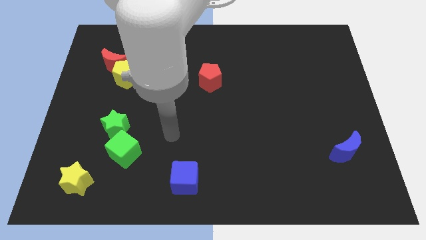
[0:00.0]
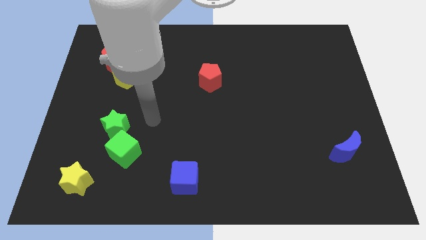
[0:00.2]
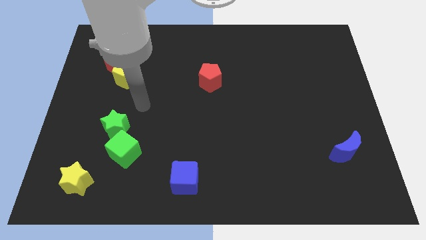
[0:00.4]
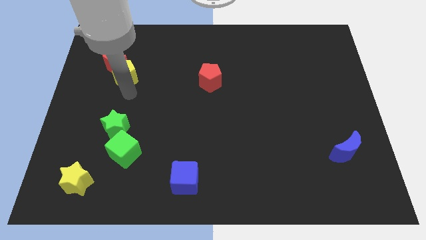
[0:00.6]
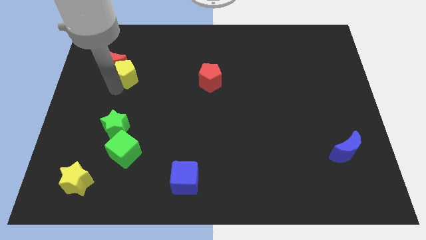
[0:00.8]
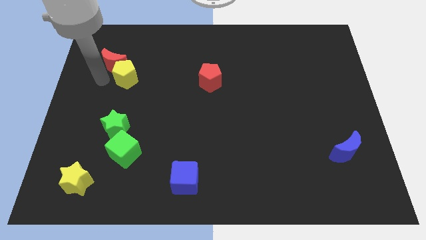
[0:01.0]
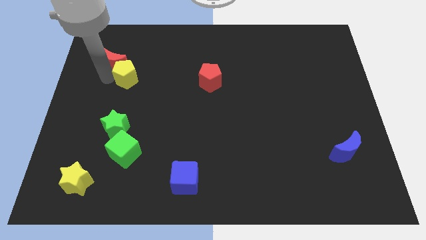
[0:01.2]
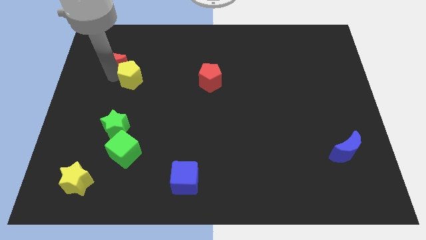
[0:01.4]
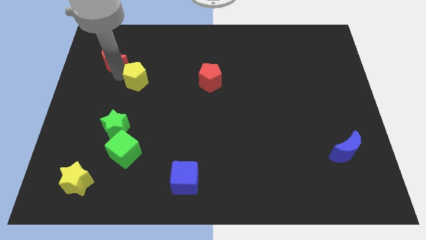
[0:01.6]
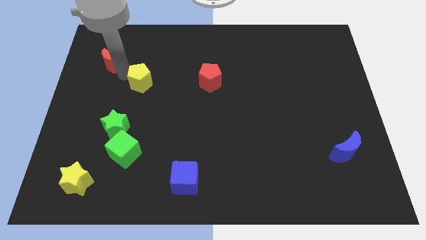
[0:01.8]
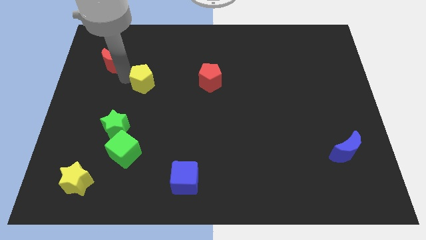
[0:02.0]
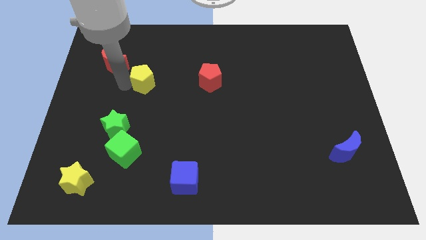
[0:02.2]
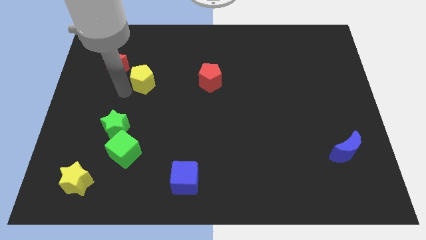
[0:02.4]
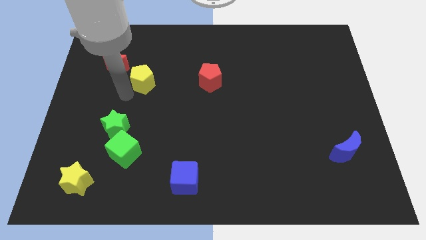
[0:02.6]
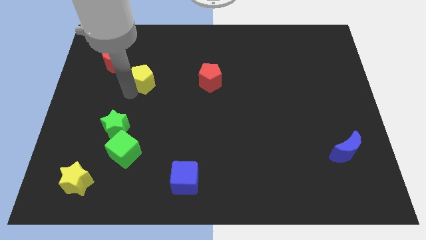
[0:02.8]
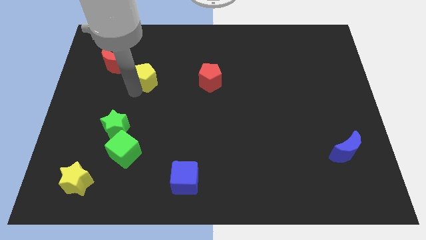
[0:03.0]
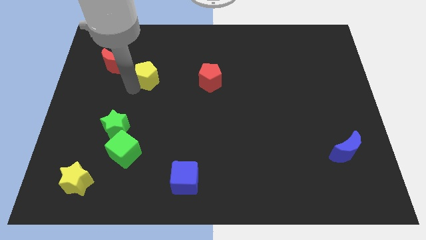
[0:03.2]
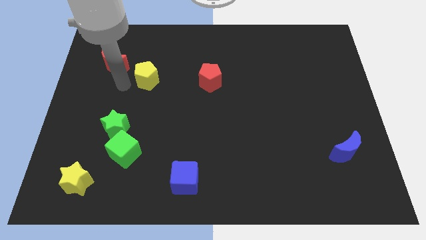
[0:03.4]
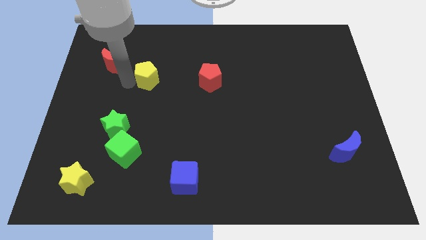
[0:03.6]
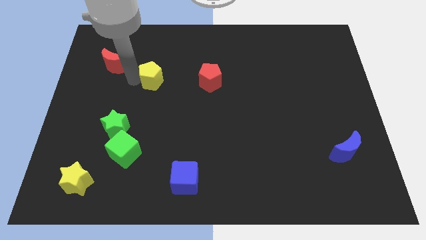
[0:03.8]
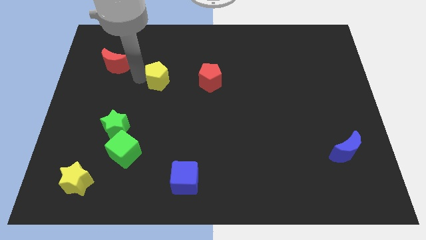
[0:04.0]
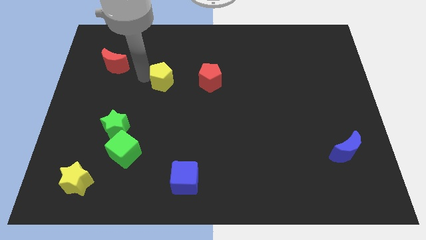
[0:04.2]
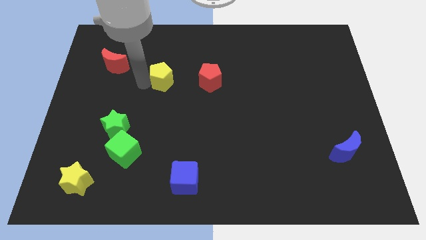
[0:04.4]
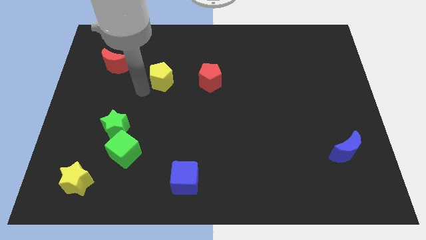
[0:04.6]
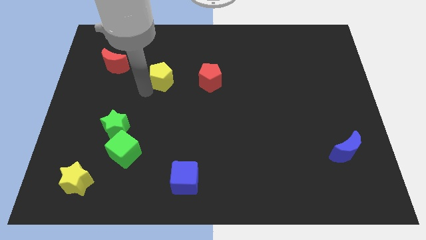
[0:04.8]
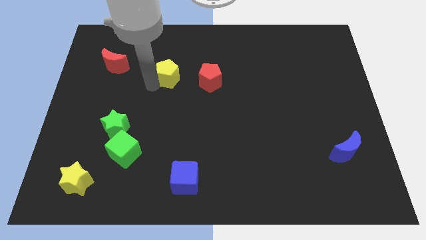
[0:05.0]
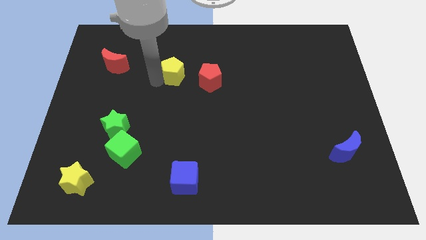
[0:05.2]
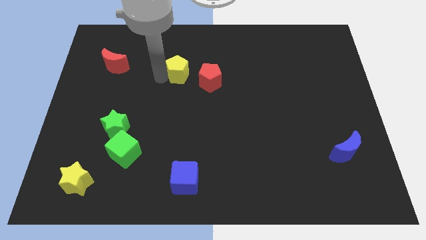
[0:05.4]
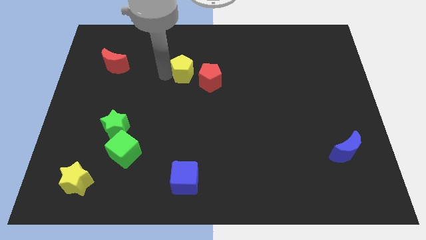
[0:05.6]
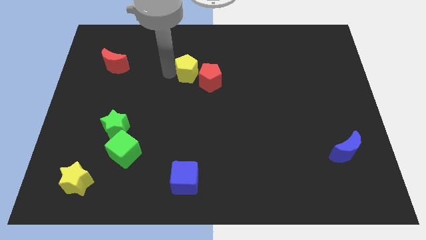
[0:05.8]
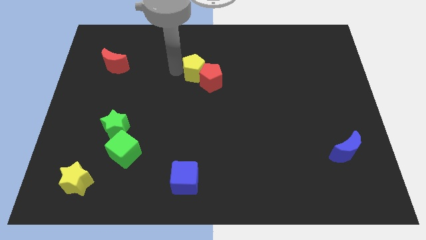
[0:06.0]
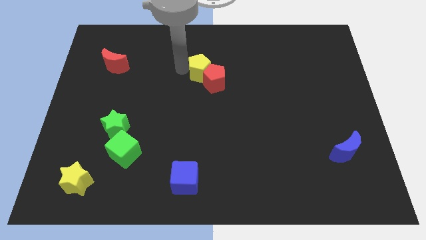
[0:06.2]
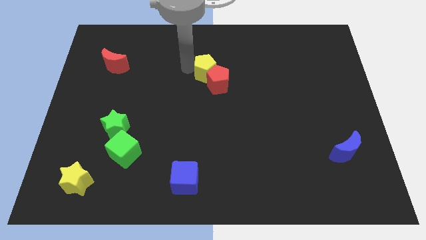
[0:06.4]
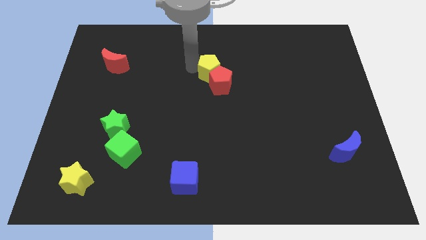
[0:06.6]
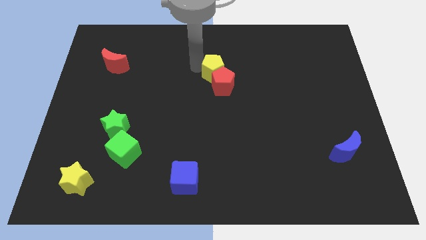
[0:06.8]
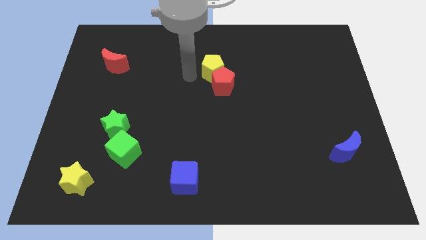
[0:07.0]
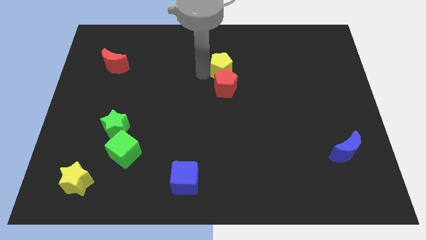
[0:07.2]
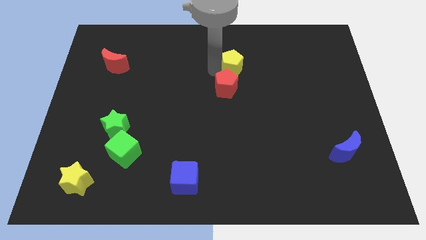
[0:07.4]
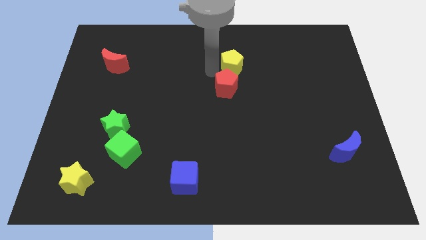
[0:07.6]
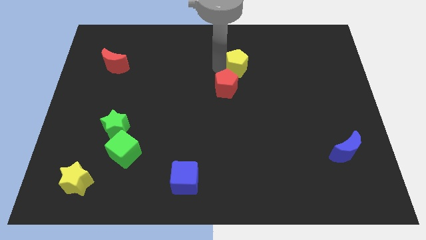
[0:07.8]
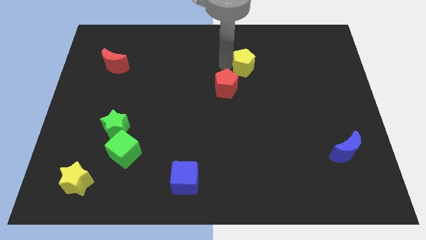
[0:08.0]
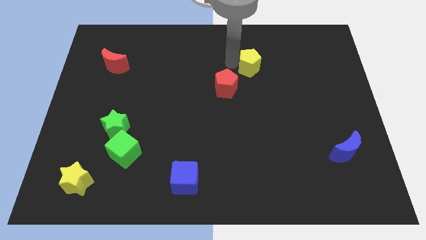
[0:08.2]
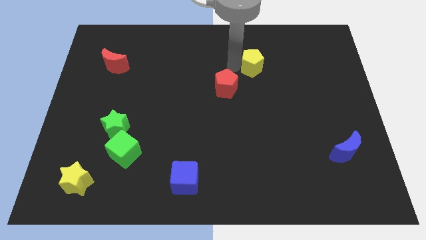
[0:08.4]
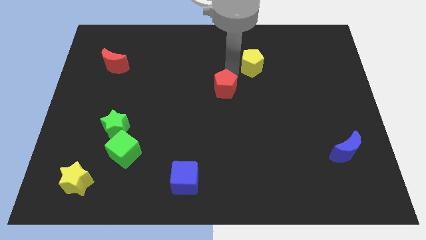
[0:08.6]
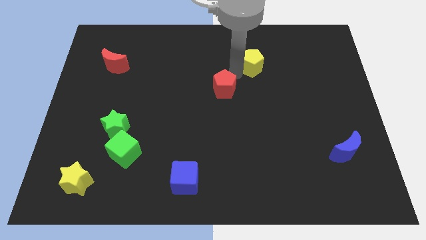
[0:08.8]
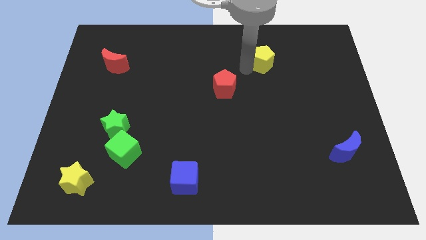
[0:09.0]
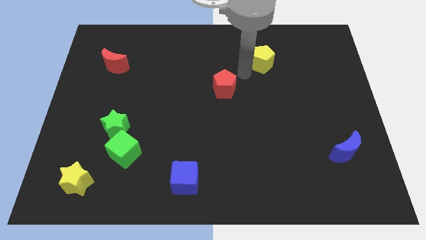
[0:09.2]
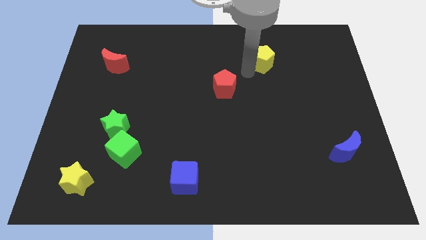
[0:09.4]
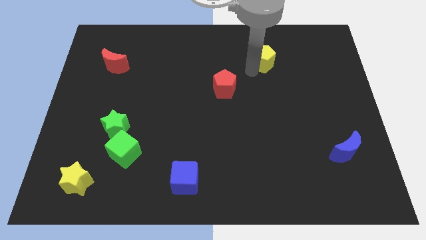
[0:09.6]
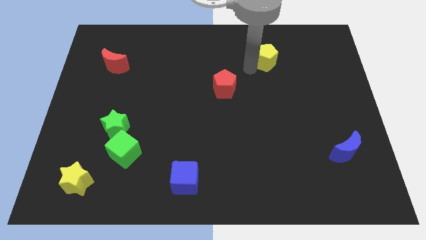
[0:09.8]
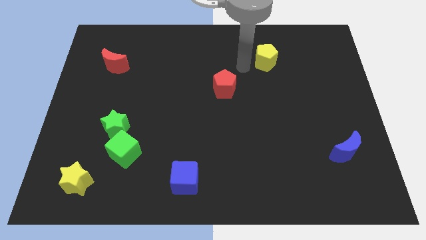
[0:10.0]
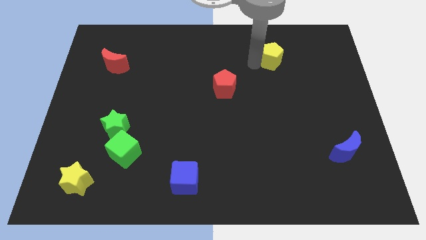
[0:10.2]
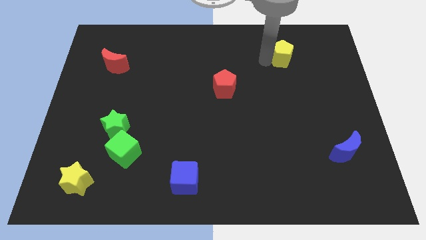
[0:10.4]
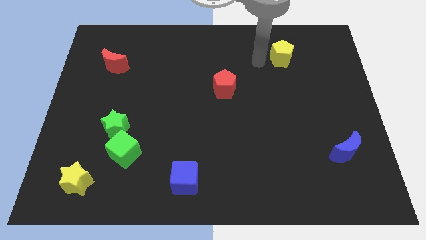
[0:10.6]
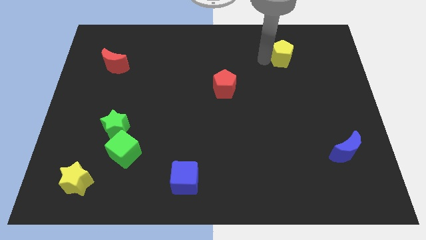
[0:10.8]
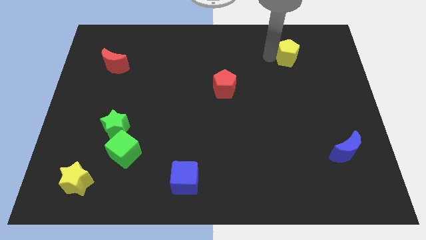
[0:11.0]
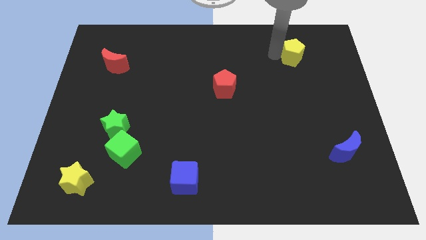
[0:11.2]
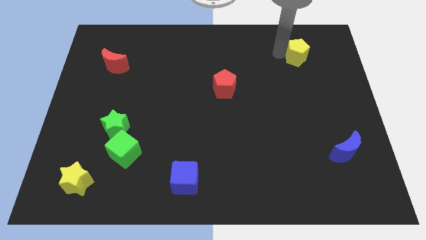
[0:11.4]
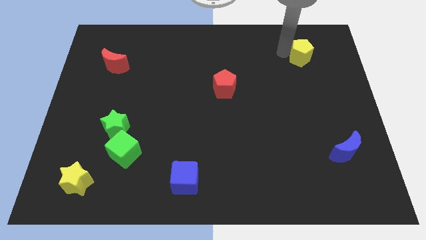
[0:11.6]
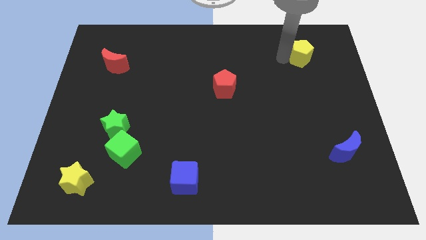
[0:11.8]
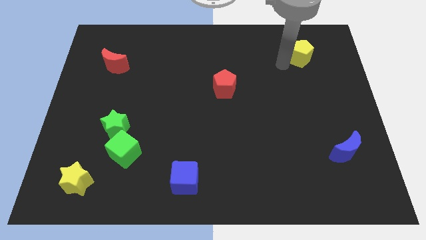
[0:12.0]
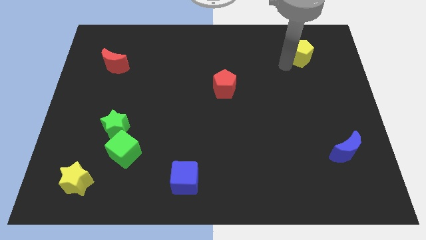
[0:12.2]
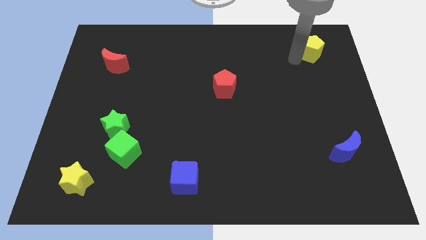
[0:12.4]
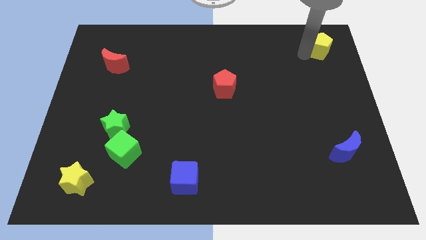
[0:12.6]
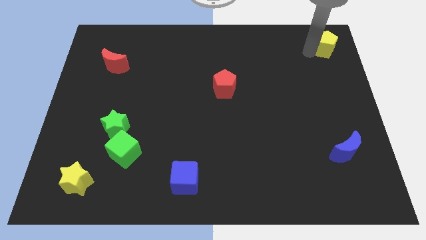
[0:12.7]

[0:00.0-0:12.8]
move the yellow pentagon to the top right of the board
